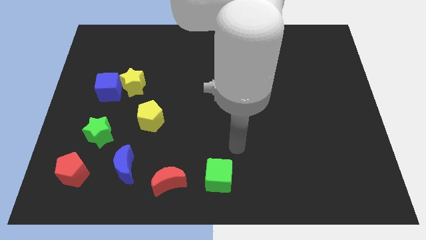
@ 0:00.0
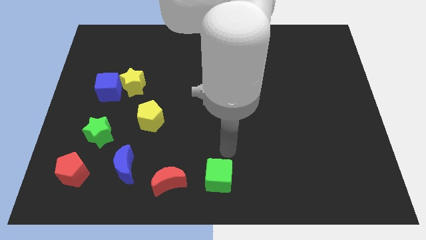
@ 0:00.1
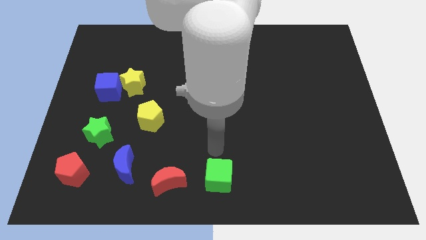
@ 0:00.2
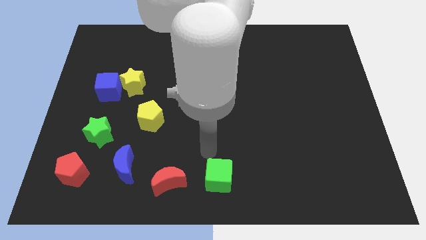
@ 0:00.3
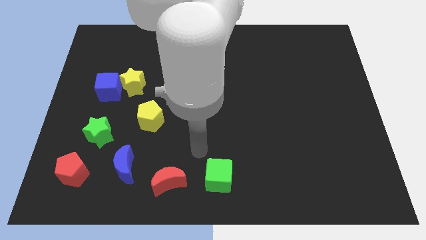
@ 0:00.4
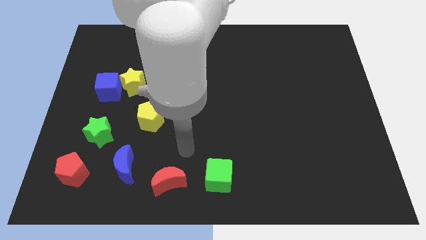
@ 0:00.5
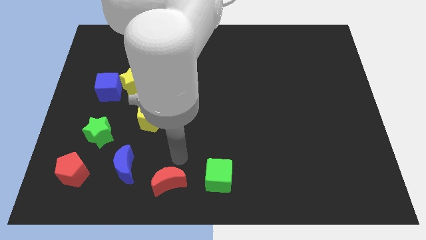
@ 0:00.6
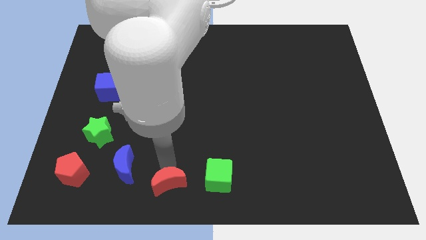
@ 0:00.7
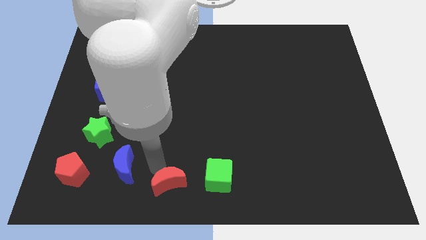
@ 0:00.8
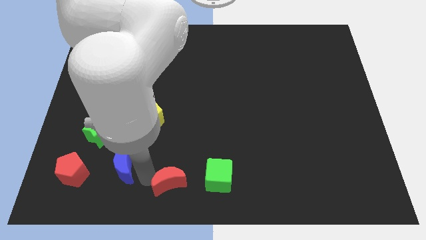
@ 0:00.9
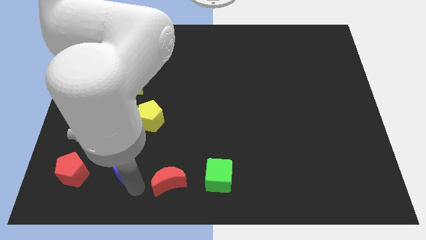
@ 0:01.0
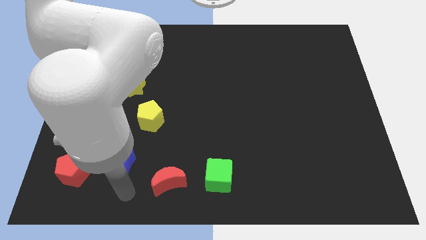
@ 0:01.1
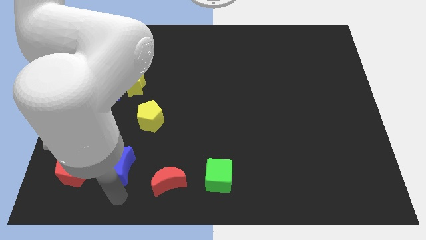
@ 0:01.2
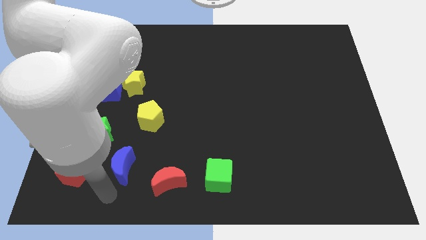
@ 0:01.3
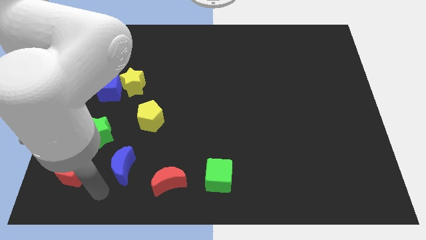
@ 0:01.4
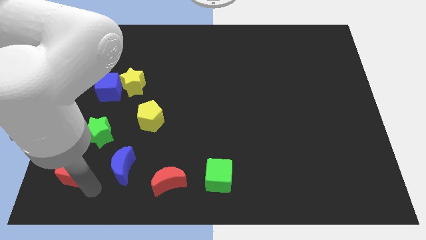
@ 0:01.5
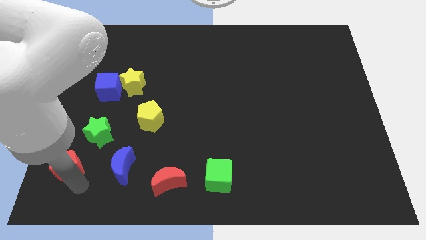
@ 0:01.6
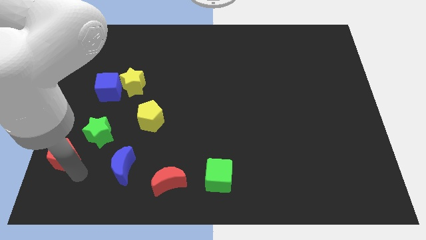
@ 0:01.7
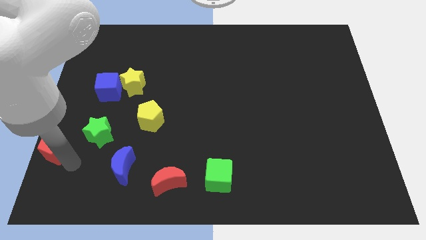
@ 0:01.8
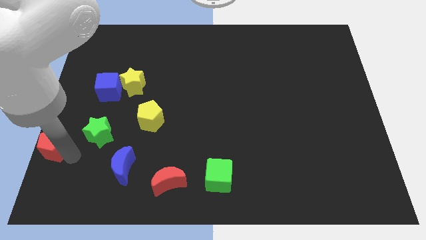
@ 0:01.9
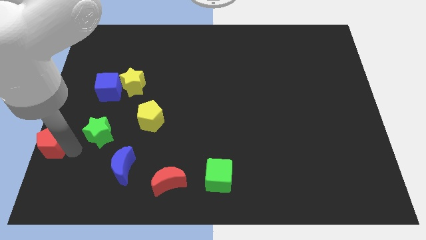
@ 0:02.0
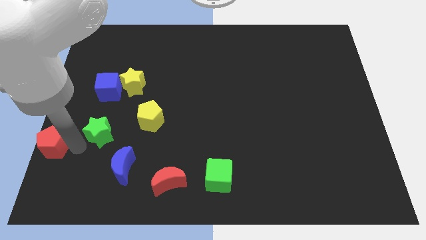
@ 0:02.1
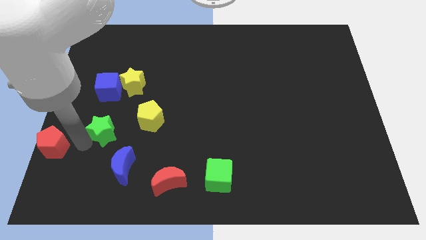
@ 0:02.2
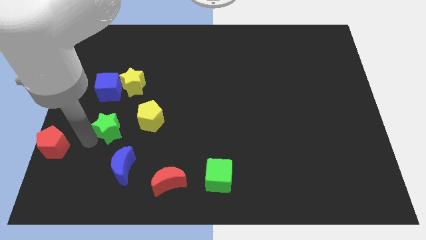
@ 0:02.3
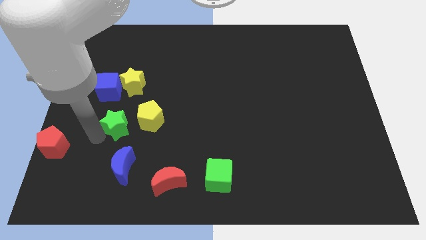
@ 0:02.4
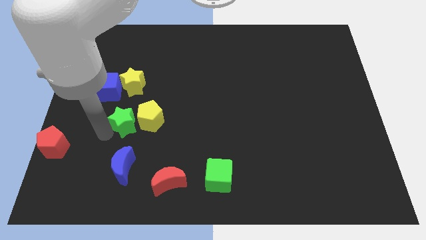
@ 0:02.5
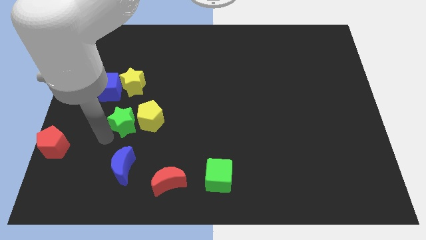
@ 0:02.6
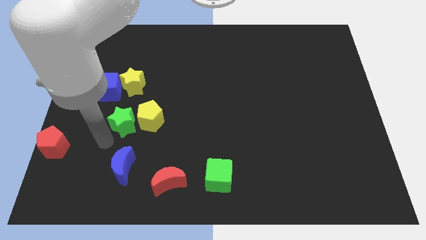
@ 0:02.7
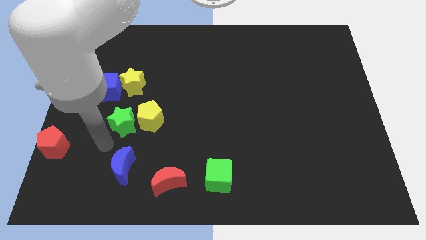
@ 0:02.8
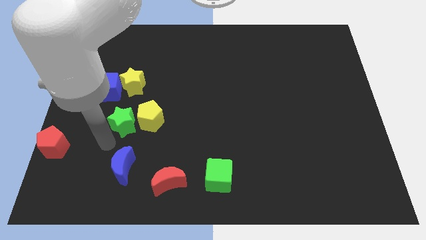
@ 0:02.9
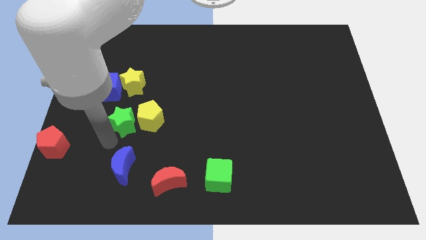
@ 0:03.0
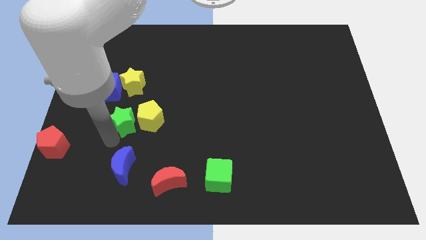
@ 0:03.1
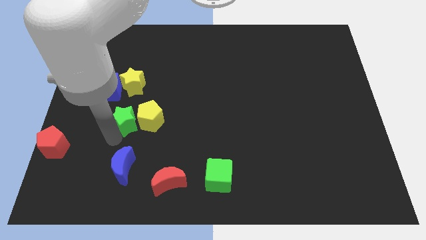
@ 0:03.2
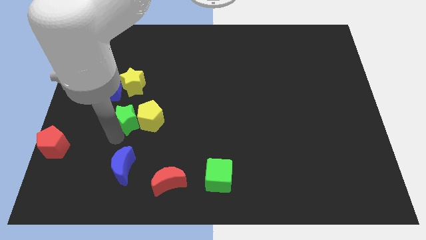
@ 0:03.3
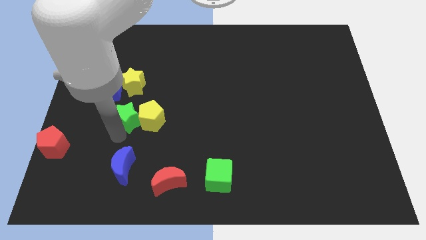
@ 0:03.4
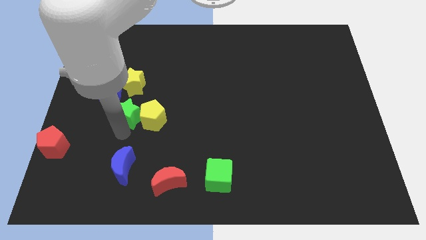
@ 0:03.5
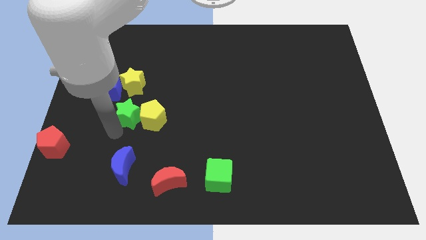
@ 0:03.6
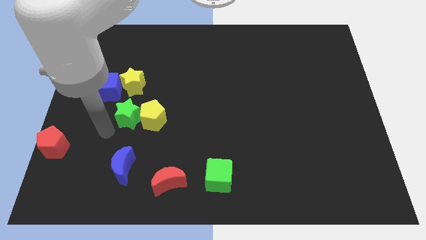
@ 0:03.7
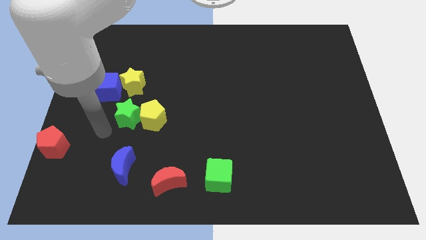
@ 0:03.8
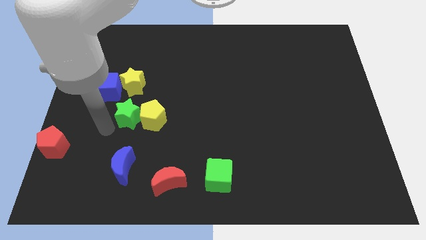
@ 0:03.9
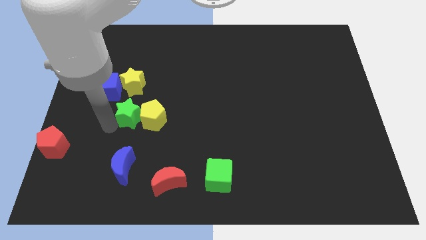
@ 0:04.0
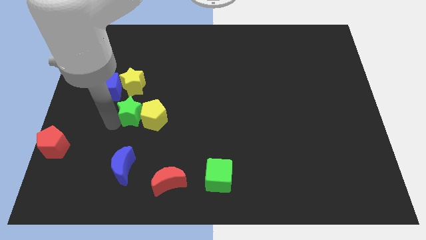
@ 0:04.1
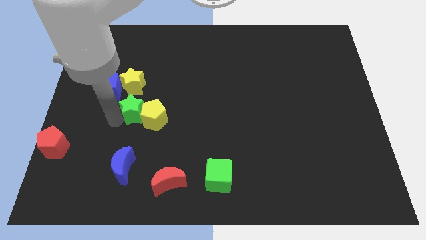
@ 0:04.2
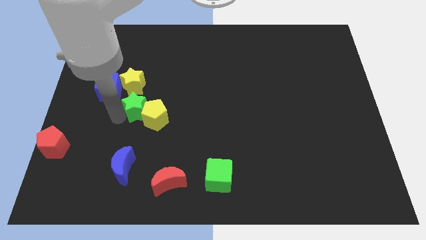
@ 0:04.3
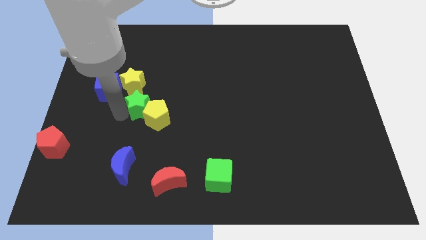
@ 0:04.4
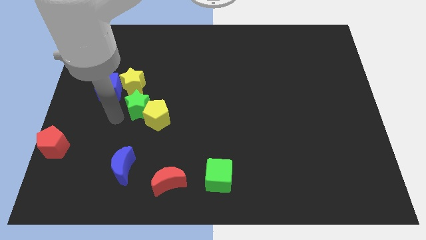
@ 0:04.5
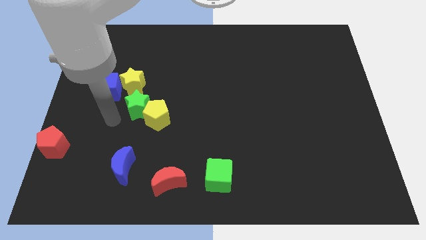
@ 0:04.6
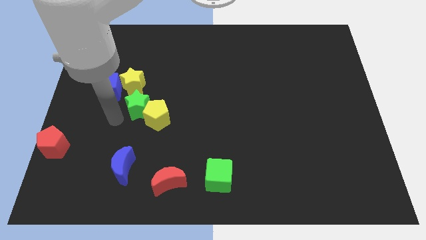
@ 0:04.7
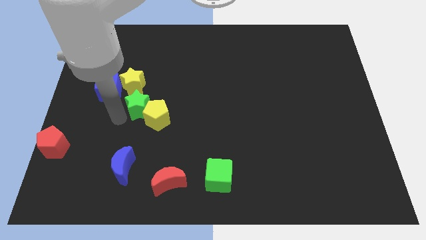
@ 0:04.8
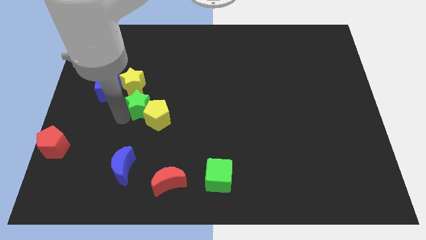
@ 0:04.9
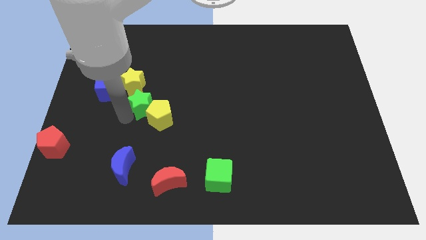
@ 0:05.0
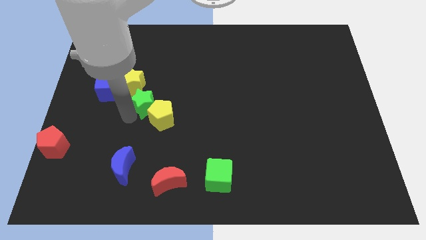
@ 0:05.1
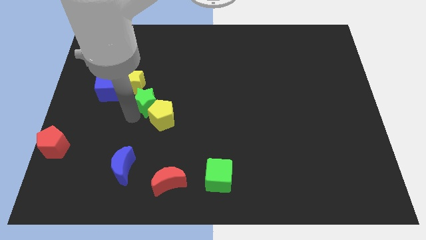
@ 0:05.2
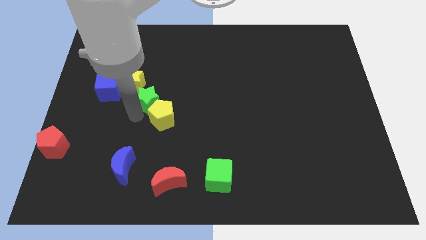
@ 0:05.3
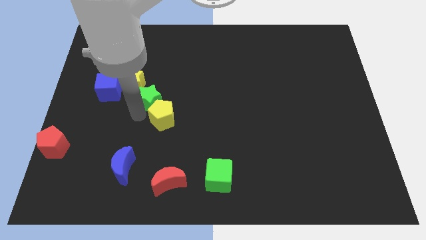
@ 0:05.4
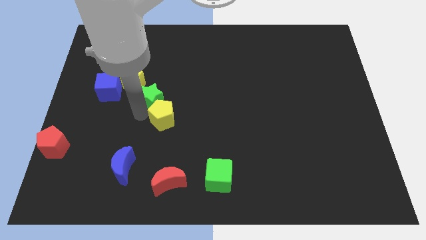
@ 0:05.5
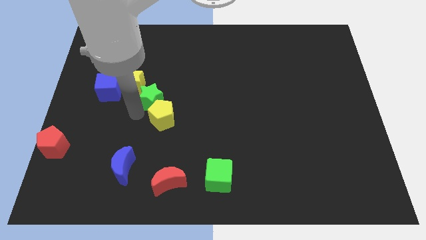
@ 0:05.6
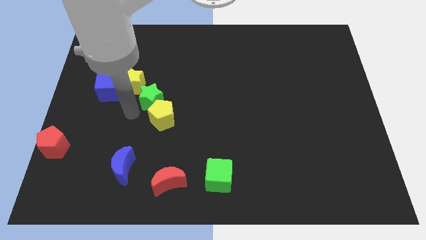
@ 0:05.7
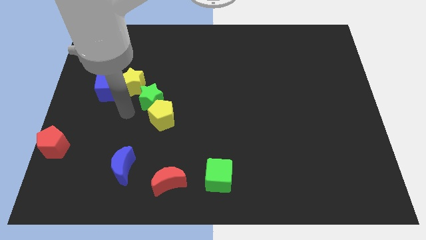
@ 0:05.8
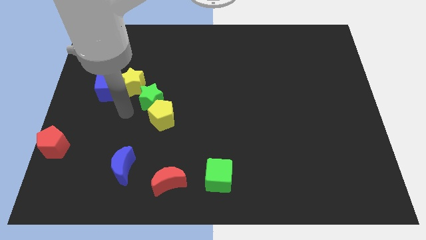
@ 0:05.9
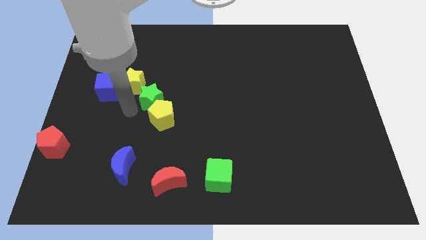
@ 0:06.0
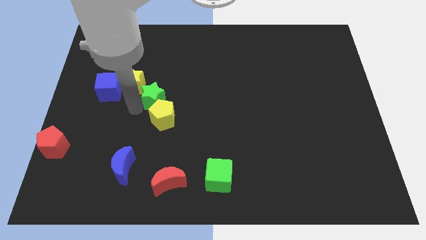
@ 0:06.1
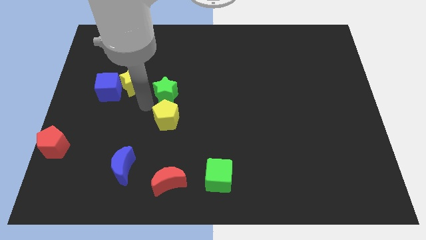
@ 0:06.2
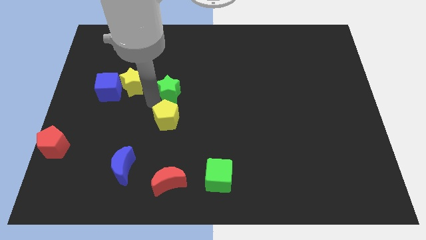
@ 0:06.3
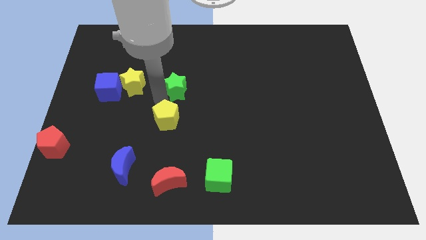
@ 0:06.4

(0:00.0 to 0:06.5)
move the green star diagonally upwards and to the right

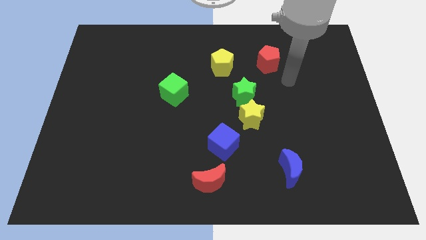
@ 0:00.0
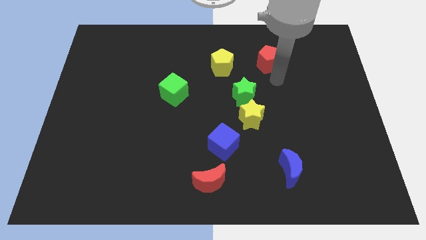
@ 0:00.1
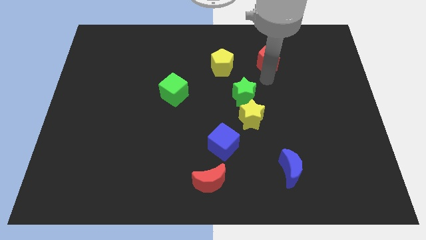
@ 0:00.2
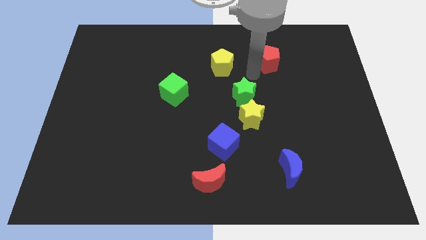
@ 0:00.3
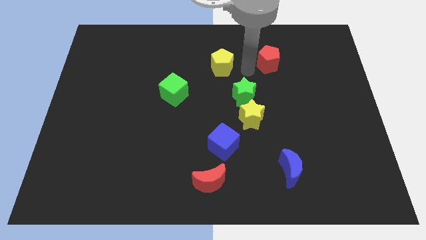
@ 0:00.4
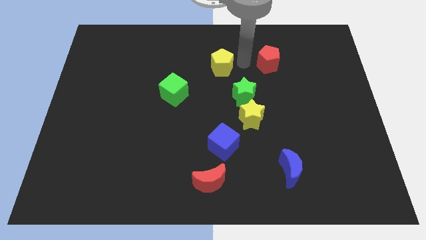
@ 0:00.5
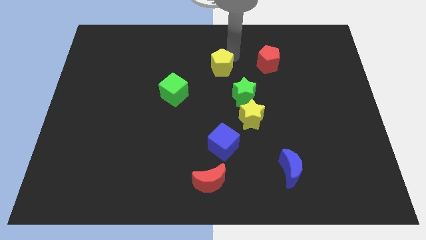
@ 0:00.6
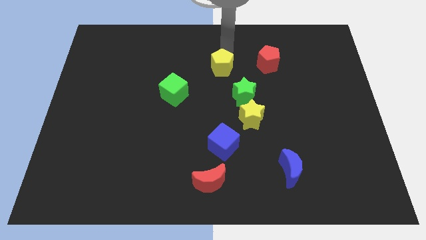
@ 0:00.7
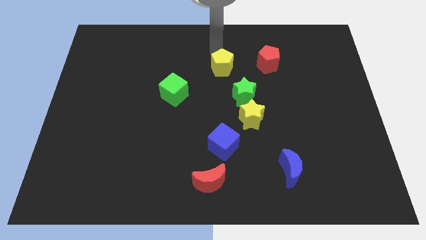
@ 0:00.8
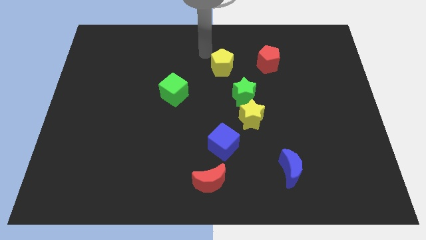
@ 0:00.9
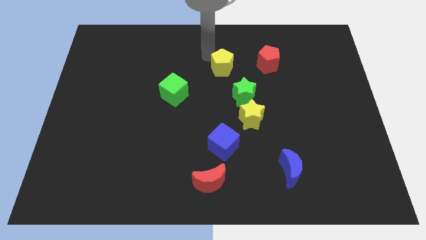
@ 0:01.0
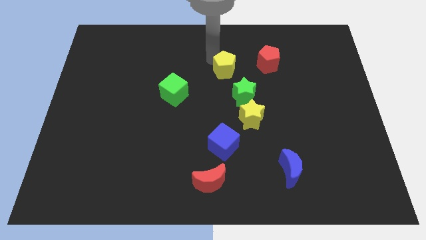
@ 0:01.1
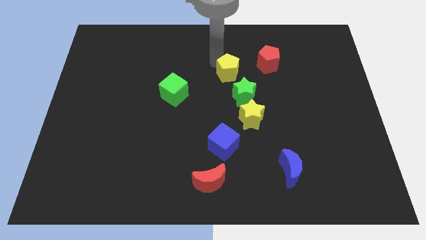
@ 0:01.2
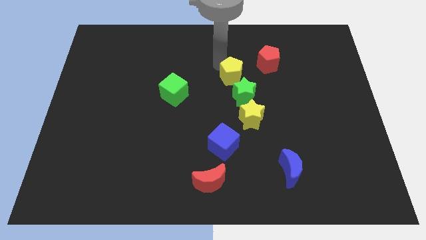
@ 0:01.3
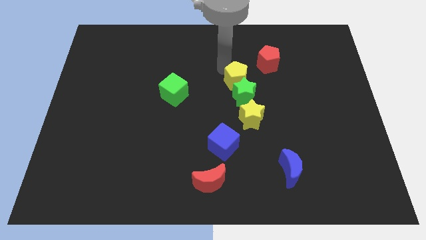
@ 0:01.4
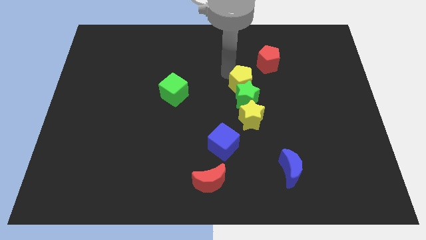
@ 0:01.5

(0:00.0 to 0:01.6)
slide the yellow pentagon down and right a bit

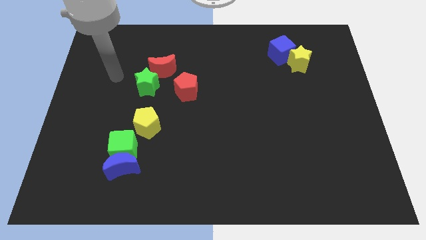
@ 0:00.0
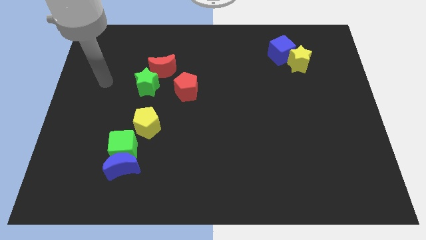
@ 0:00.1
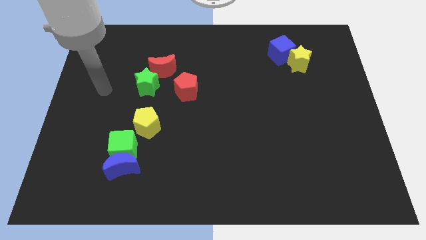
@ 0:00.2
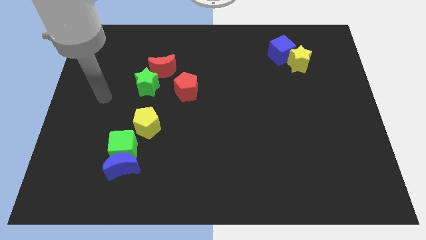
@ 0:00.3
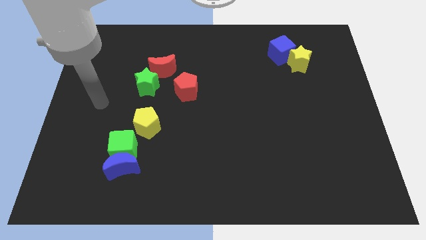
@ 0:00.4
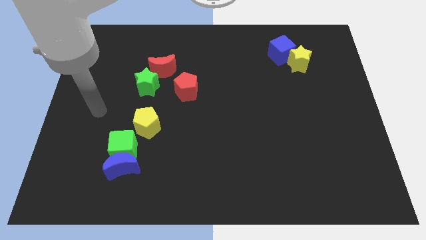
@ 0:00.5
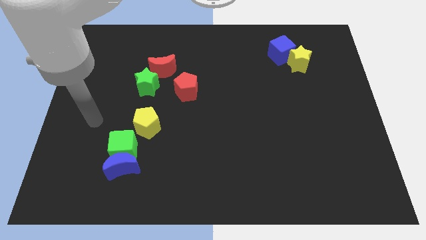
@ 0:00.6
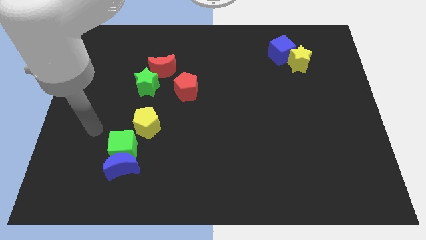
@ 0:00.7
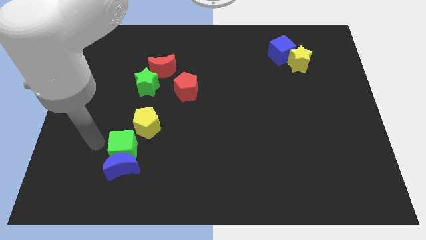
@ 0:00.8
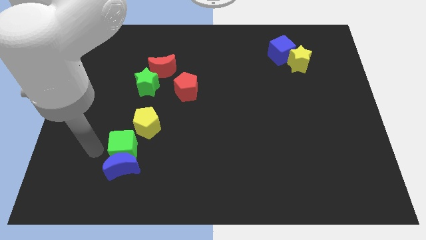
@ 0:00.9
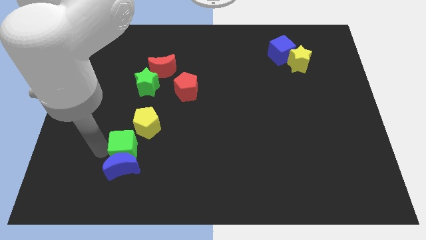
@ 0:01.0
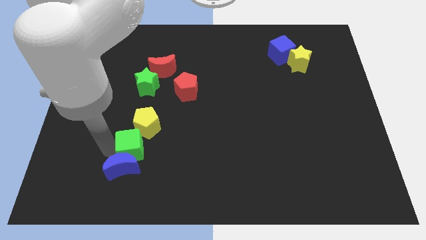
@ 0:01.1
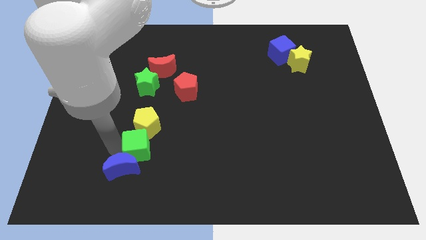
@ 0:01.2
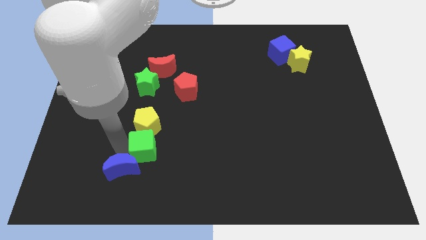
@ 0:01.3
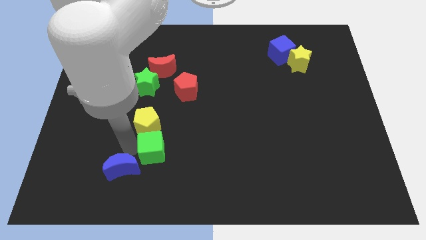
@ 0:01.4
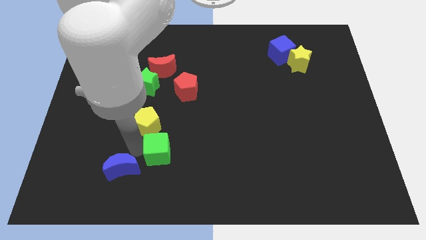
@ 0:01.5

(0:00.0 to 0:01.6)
move the green cube a little bit to the right
